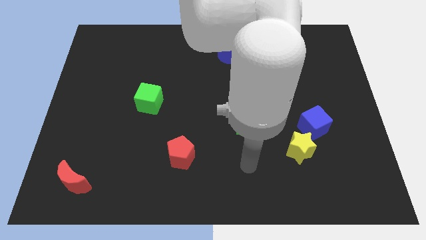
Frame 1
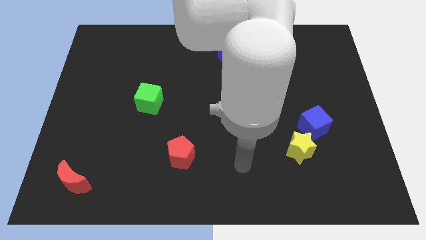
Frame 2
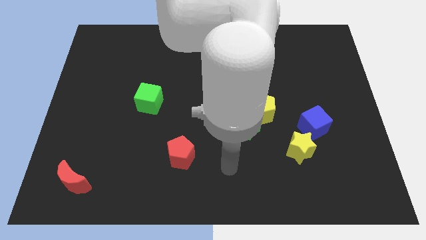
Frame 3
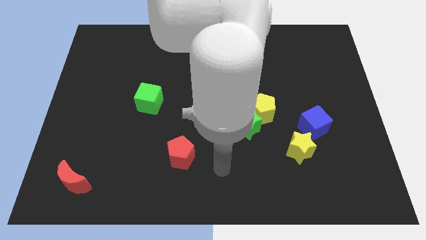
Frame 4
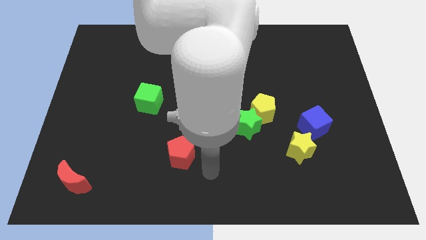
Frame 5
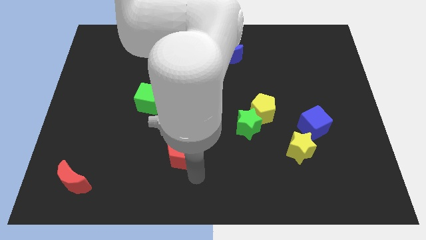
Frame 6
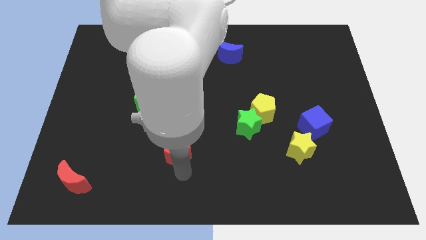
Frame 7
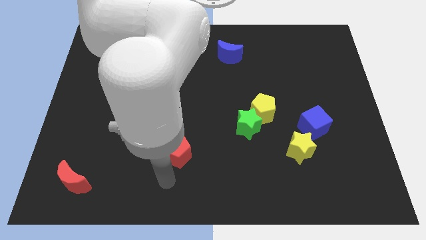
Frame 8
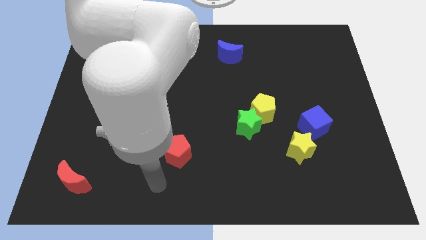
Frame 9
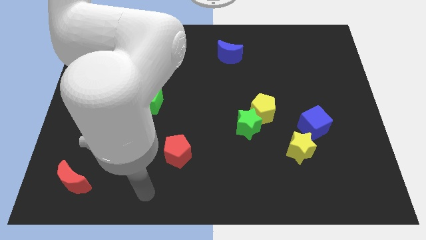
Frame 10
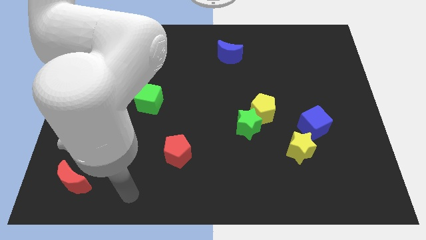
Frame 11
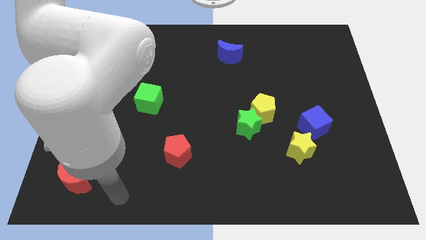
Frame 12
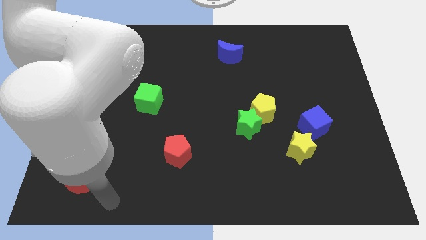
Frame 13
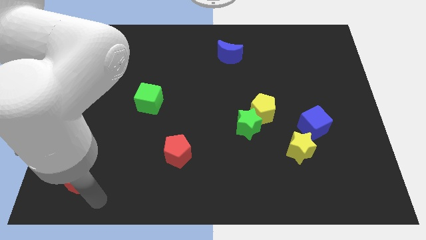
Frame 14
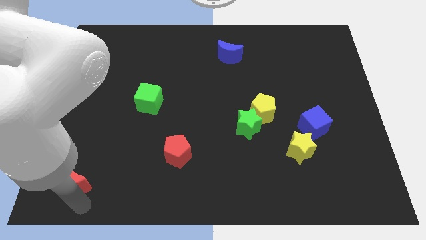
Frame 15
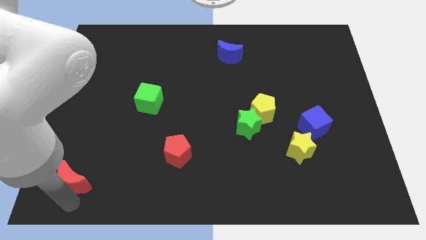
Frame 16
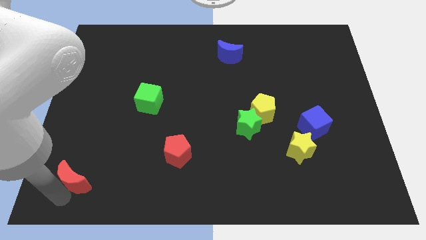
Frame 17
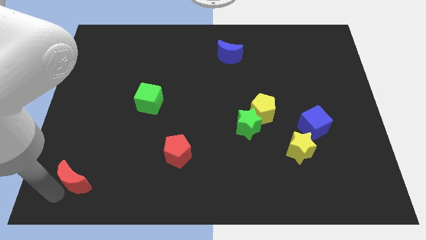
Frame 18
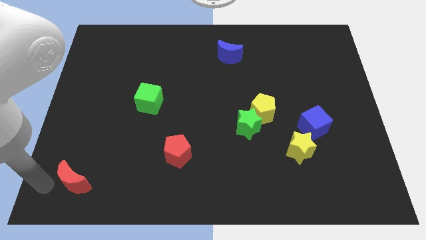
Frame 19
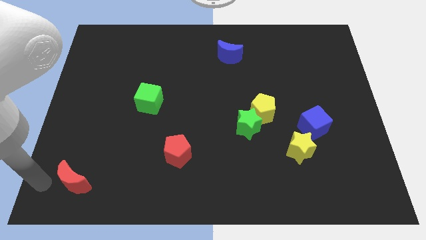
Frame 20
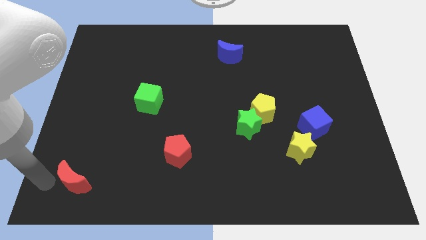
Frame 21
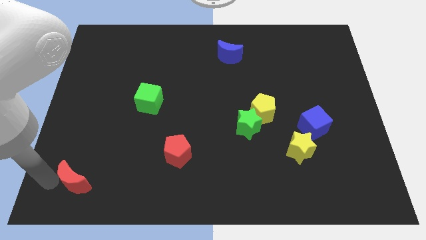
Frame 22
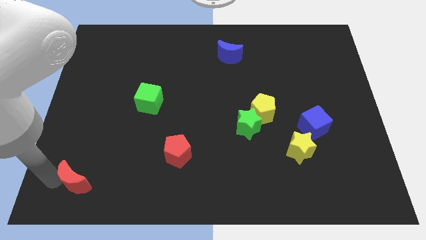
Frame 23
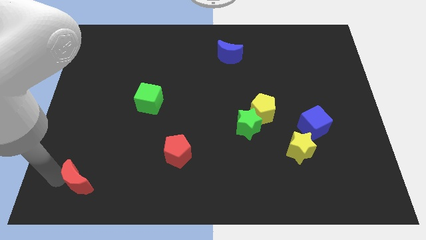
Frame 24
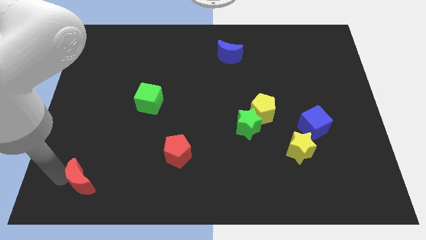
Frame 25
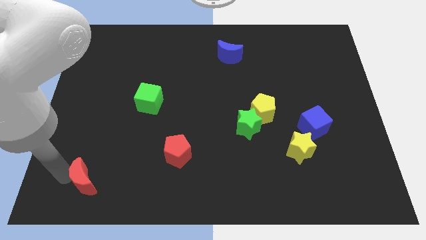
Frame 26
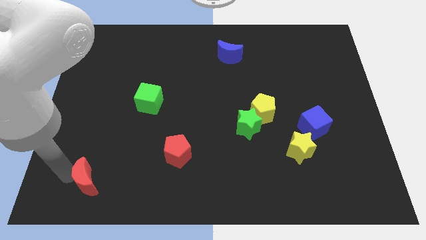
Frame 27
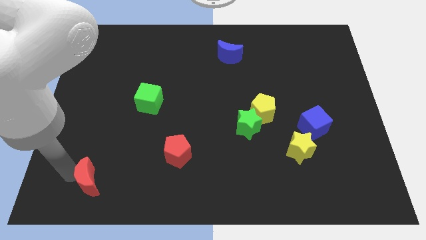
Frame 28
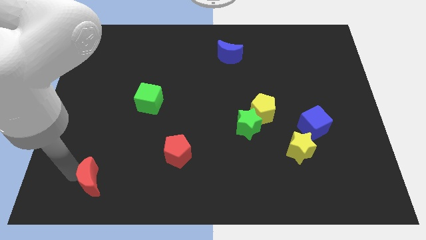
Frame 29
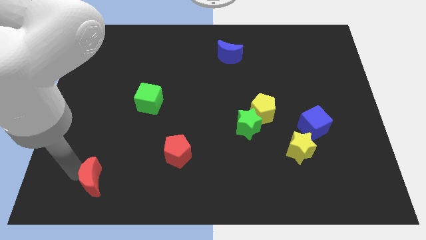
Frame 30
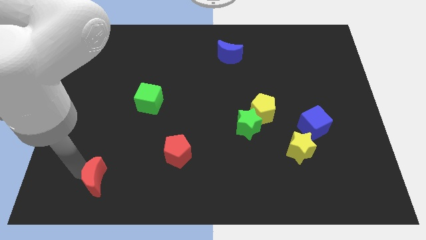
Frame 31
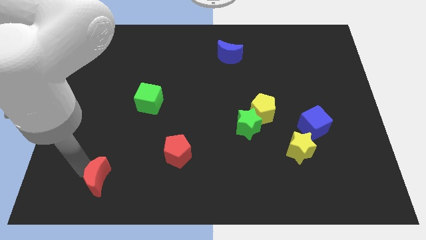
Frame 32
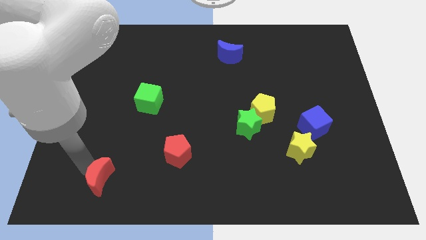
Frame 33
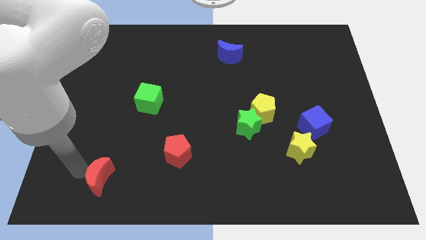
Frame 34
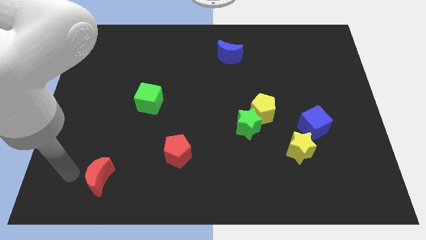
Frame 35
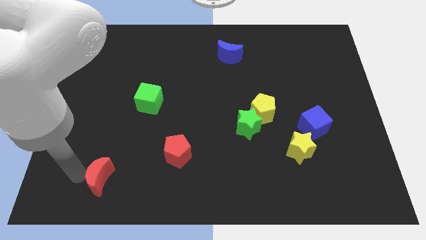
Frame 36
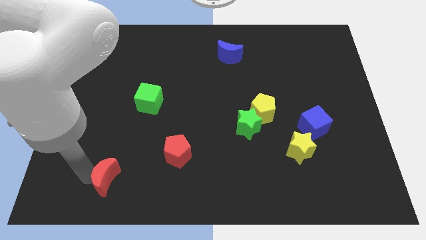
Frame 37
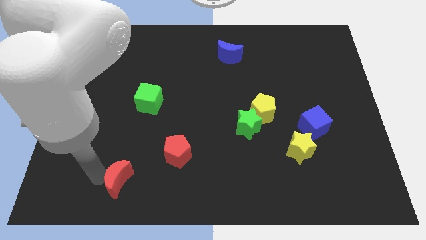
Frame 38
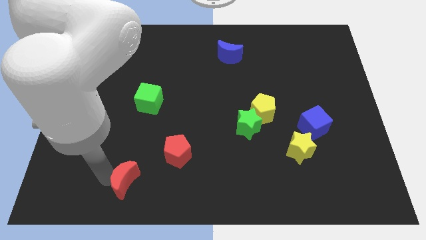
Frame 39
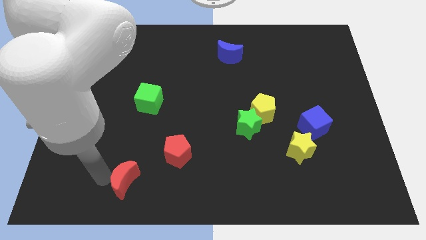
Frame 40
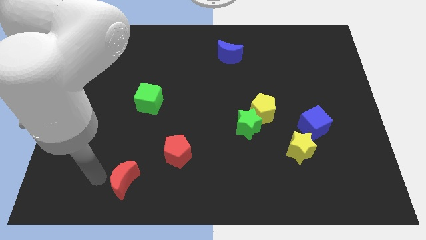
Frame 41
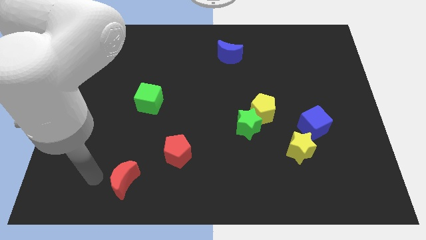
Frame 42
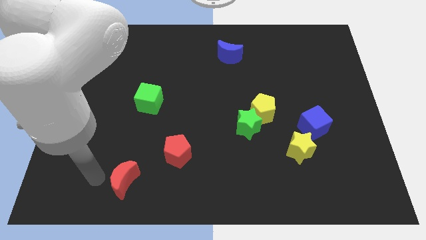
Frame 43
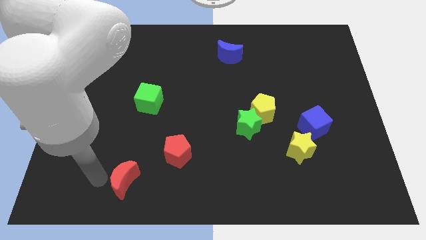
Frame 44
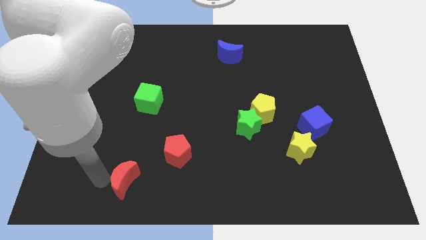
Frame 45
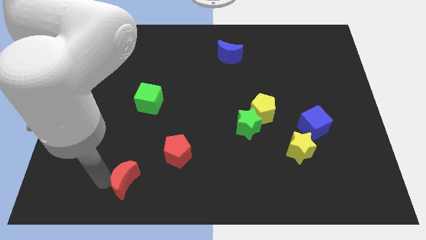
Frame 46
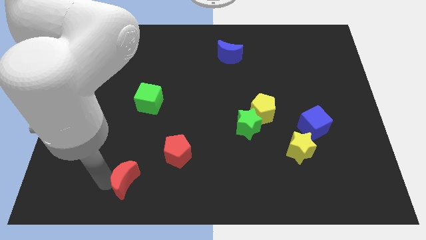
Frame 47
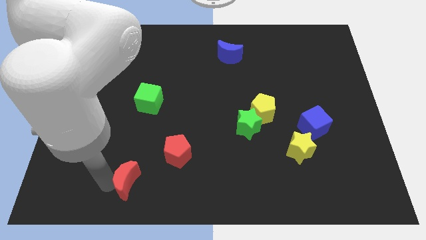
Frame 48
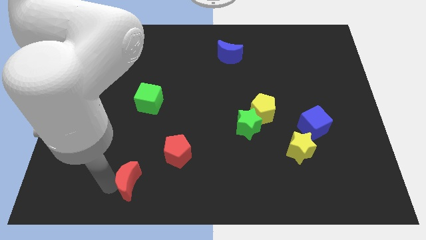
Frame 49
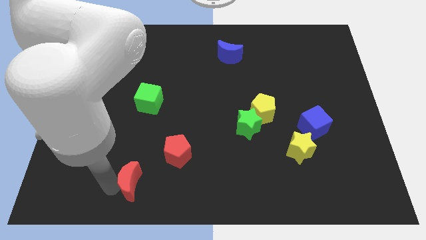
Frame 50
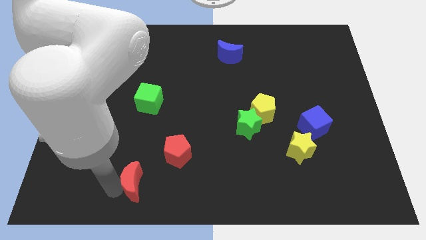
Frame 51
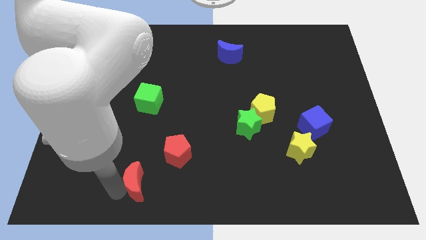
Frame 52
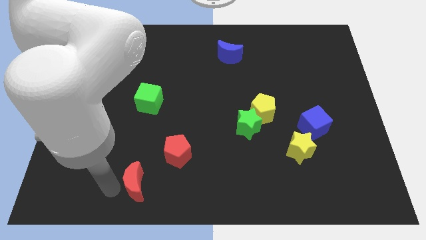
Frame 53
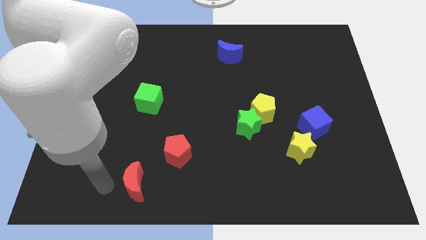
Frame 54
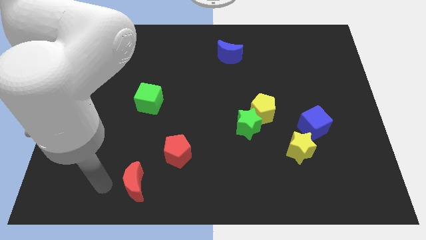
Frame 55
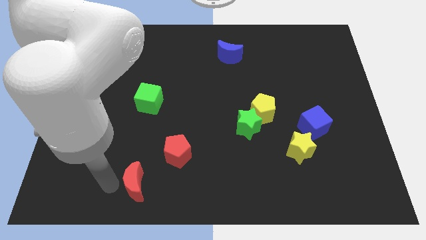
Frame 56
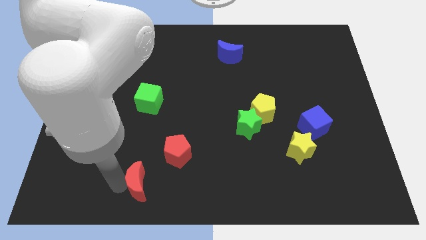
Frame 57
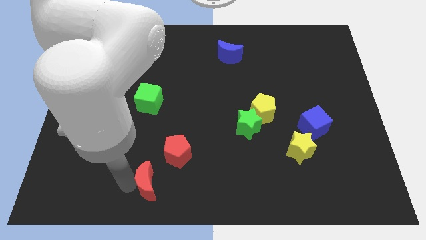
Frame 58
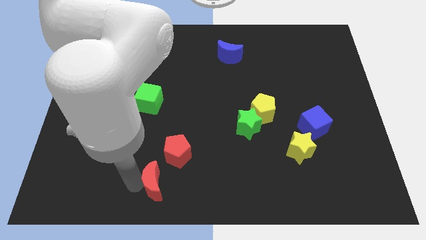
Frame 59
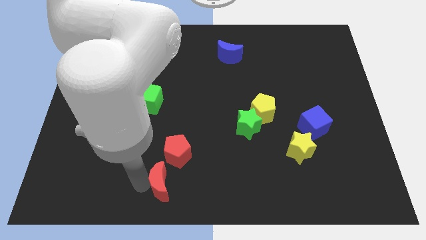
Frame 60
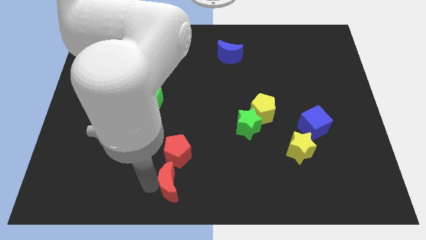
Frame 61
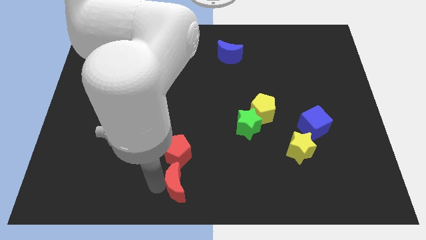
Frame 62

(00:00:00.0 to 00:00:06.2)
move the red moon right

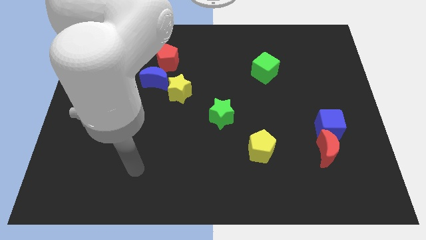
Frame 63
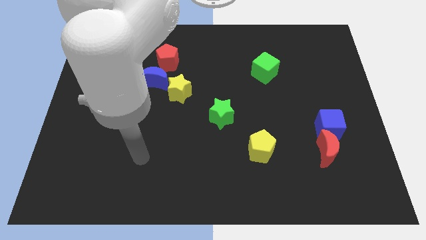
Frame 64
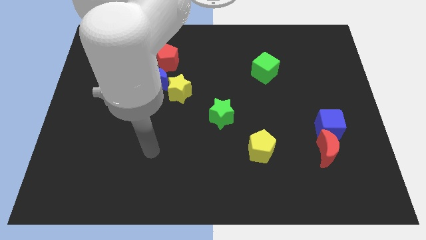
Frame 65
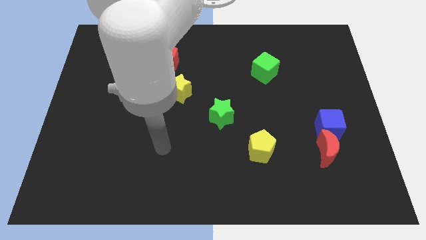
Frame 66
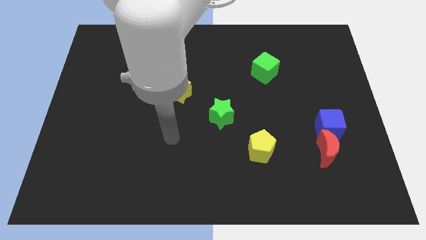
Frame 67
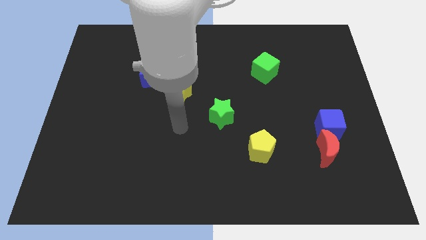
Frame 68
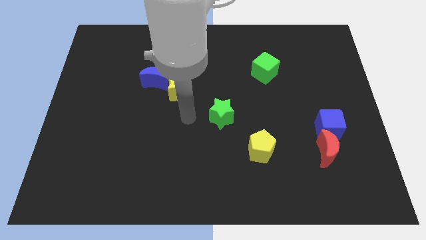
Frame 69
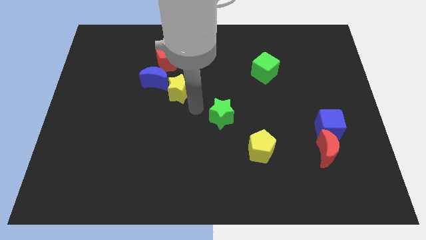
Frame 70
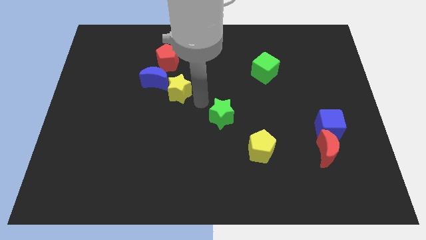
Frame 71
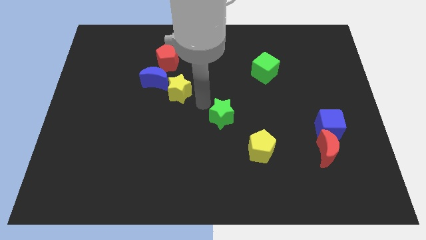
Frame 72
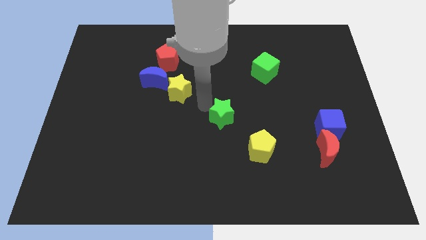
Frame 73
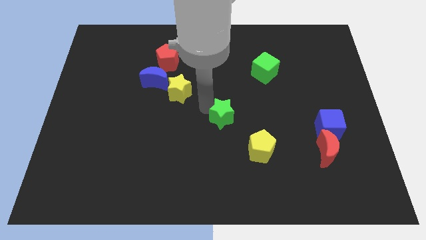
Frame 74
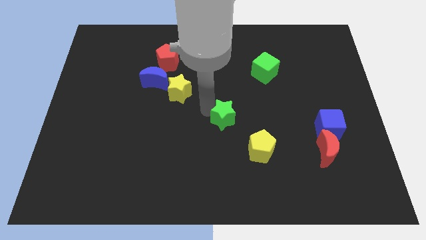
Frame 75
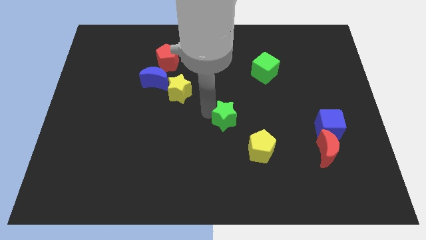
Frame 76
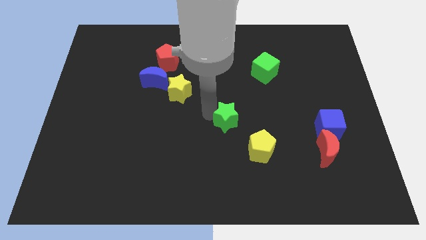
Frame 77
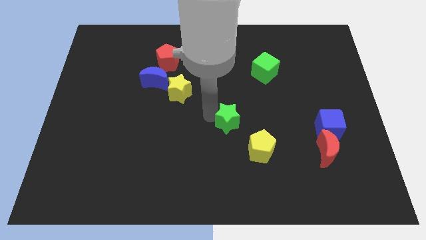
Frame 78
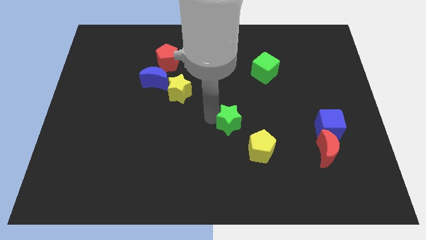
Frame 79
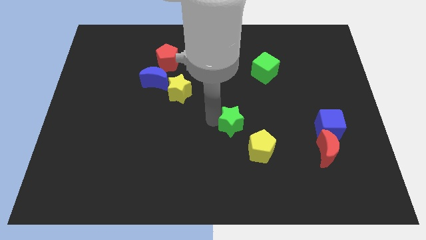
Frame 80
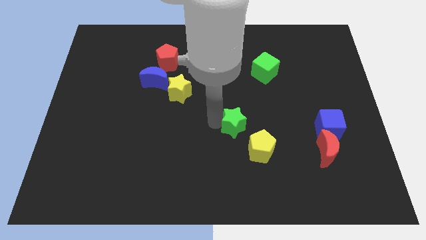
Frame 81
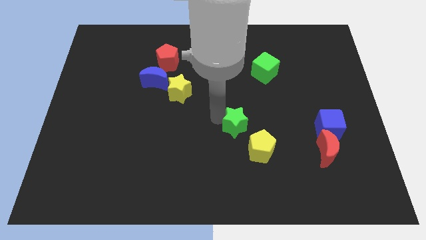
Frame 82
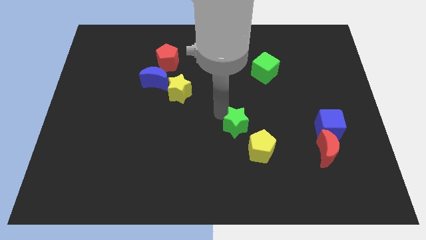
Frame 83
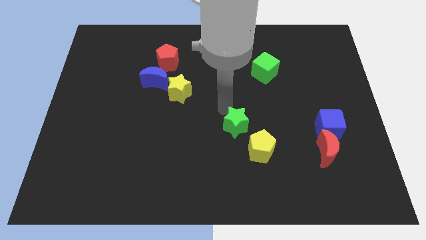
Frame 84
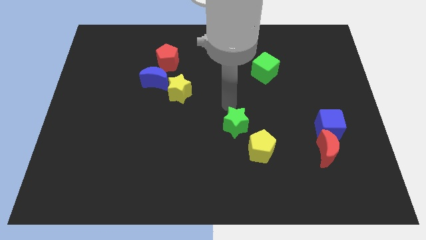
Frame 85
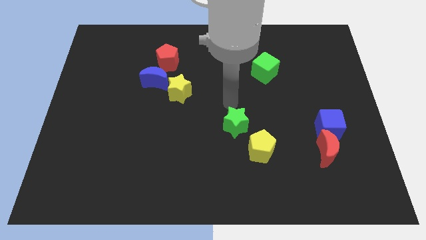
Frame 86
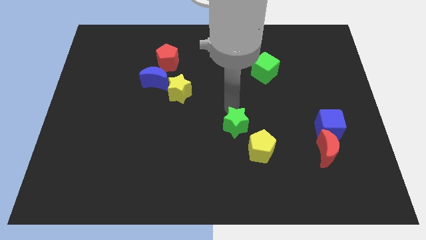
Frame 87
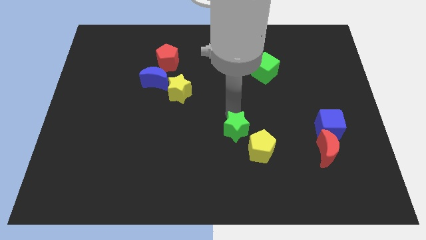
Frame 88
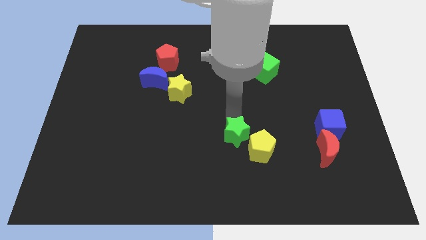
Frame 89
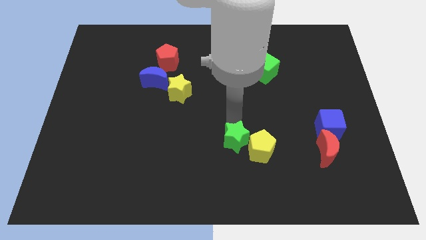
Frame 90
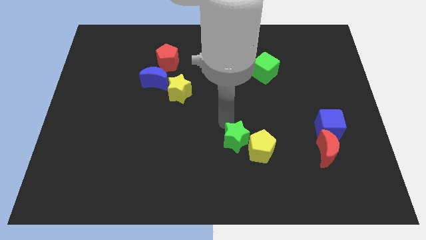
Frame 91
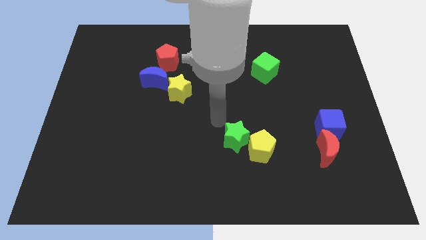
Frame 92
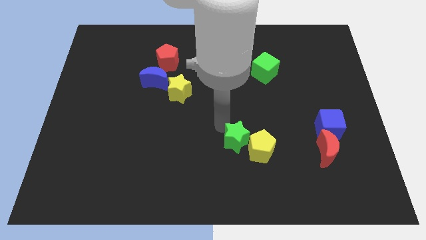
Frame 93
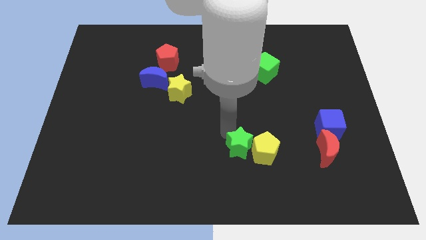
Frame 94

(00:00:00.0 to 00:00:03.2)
move the green star downwards and to the right diagonally slightly
